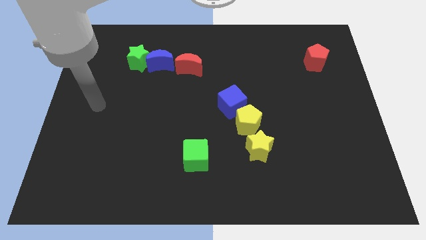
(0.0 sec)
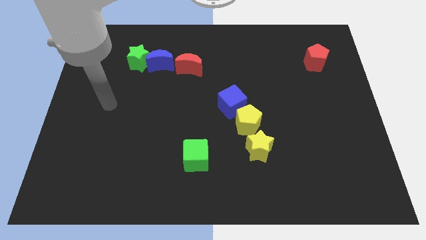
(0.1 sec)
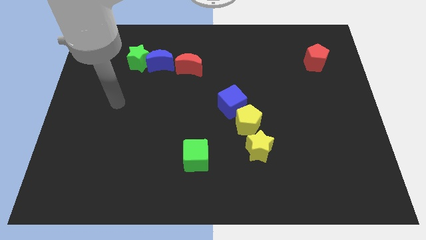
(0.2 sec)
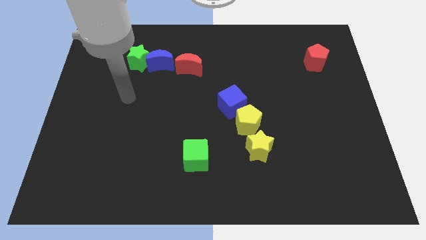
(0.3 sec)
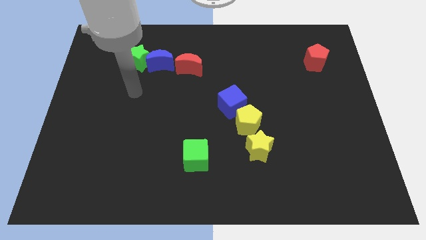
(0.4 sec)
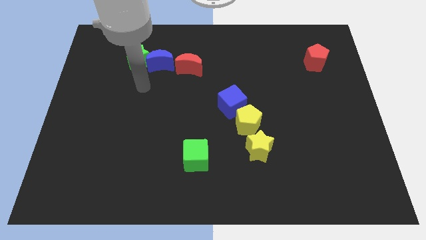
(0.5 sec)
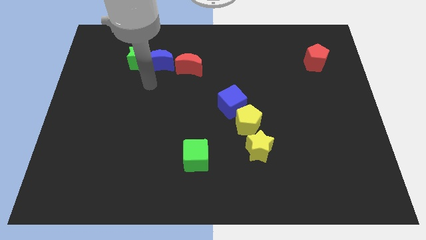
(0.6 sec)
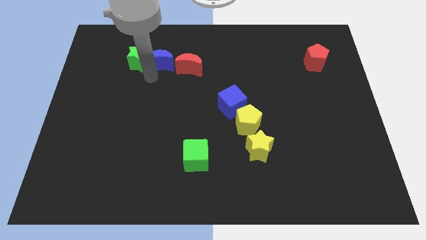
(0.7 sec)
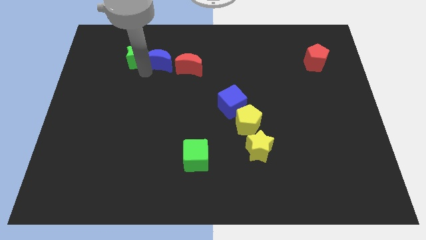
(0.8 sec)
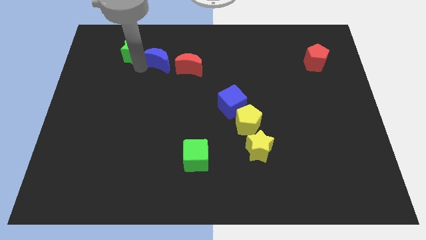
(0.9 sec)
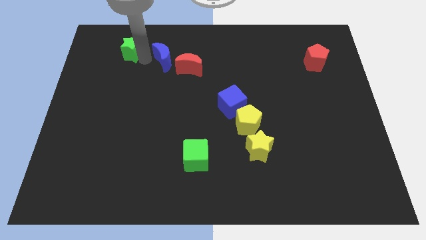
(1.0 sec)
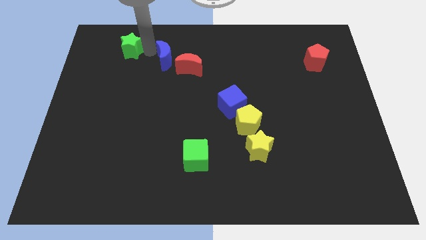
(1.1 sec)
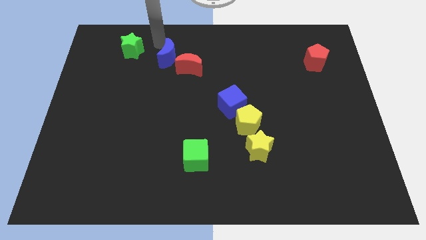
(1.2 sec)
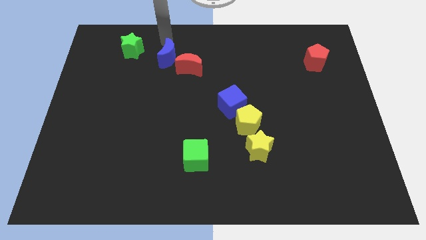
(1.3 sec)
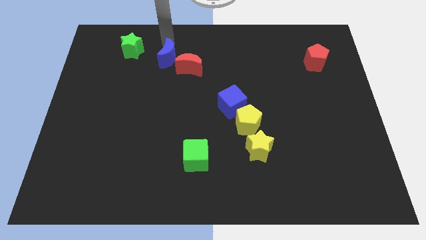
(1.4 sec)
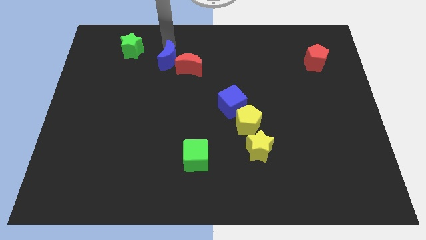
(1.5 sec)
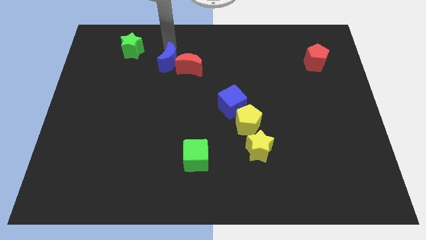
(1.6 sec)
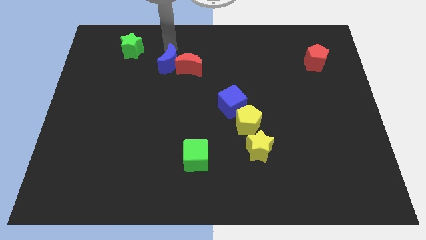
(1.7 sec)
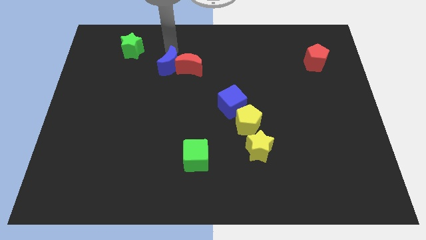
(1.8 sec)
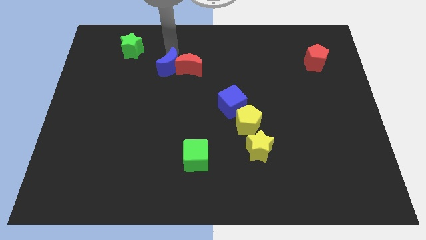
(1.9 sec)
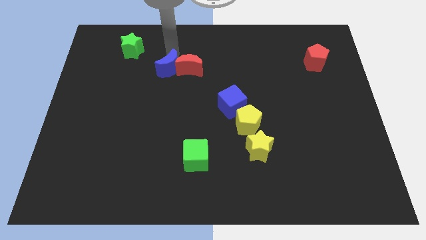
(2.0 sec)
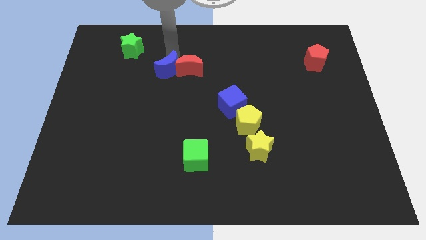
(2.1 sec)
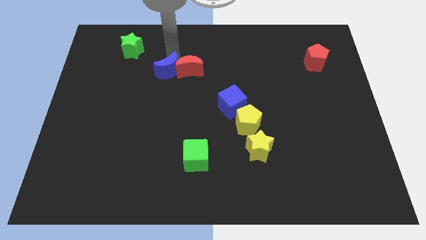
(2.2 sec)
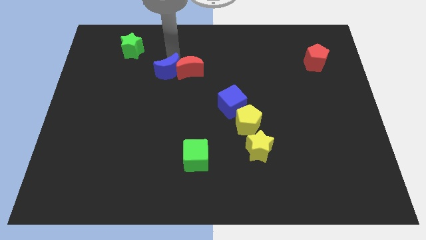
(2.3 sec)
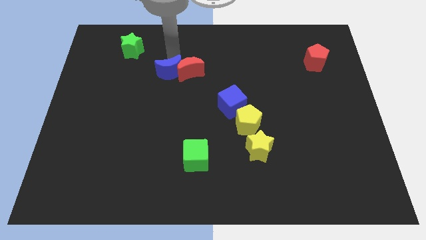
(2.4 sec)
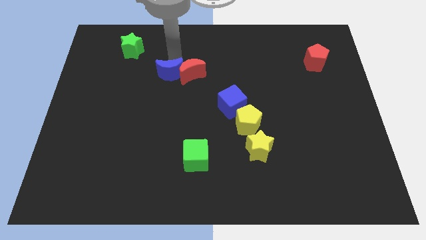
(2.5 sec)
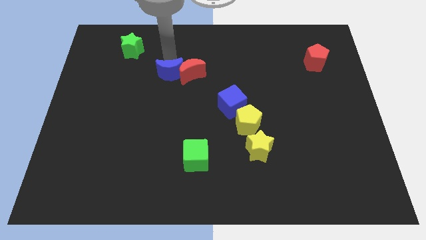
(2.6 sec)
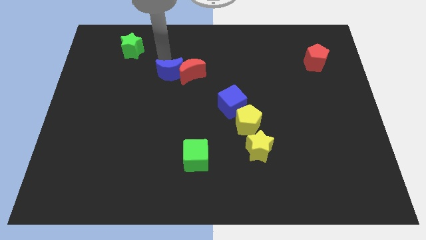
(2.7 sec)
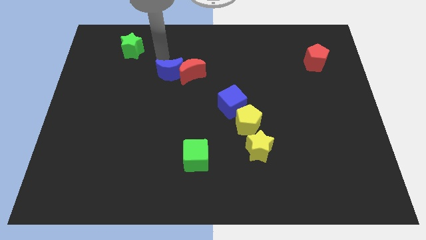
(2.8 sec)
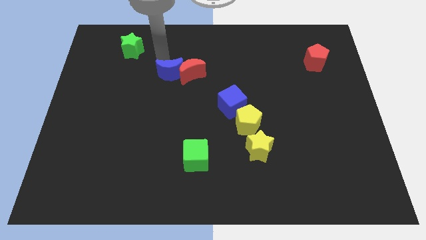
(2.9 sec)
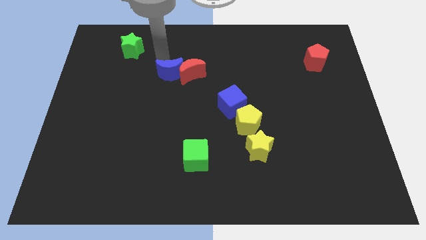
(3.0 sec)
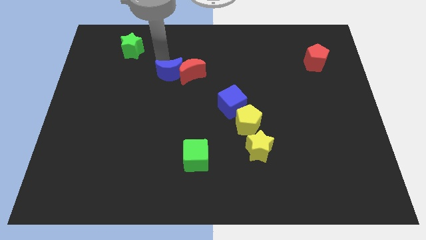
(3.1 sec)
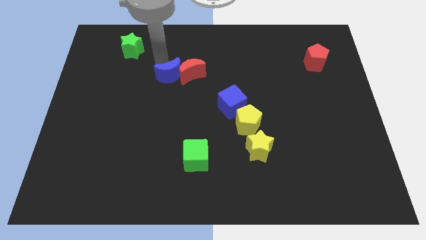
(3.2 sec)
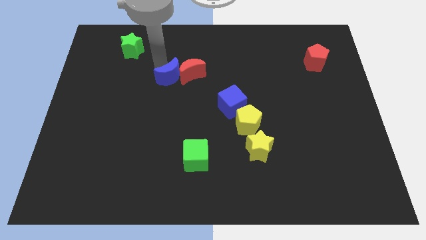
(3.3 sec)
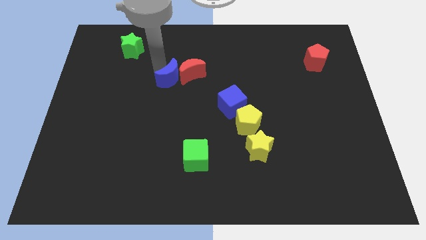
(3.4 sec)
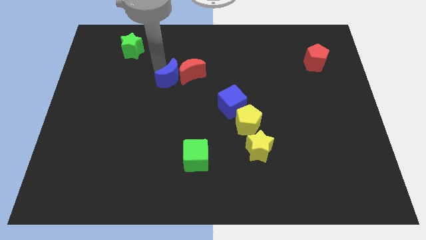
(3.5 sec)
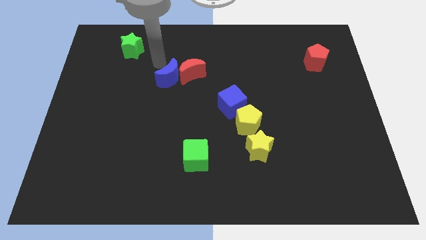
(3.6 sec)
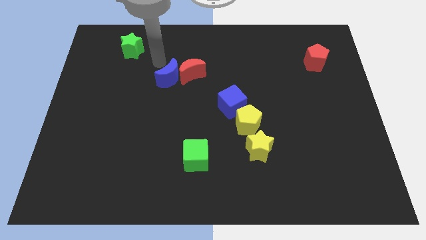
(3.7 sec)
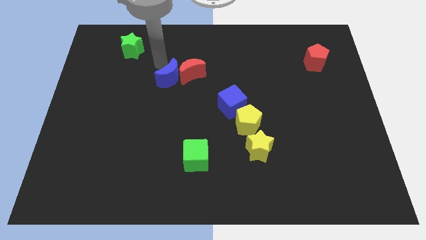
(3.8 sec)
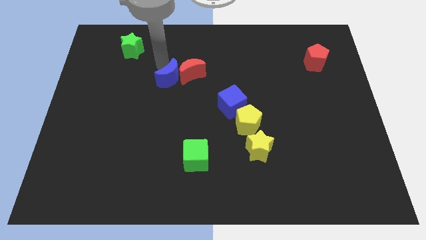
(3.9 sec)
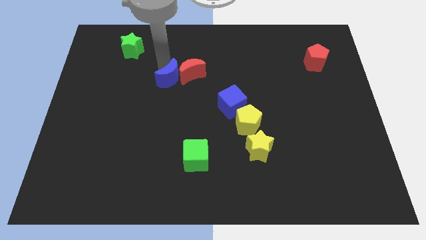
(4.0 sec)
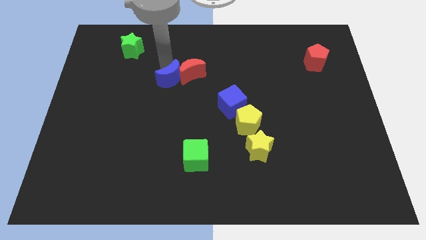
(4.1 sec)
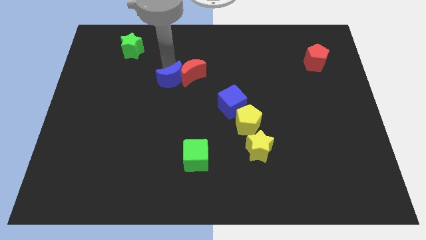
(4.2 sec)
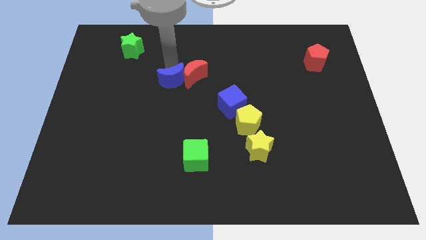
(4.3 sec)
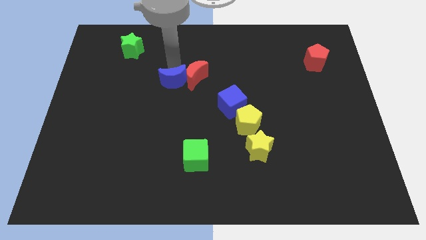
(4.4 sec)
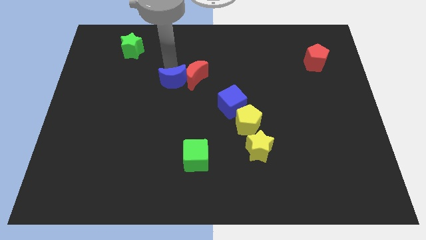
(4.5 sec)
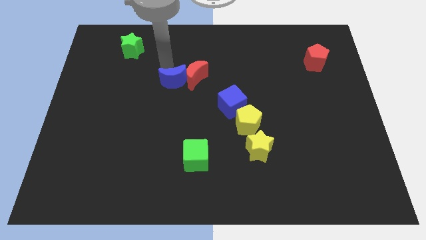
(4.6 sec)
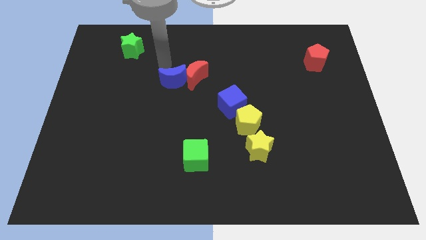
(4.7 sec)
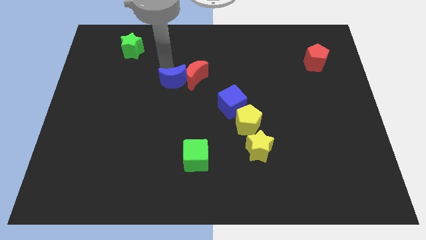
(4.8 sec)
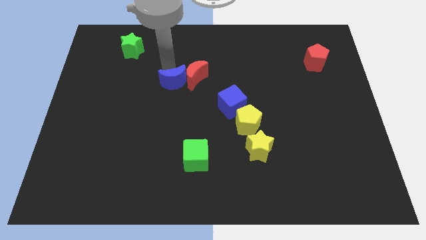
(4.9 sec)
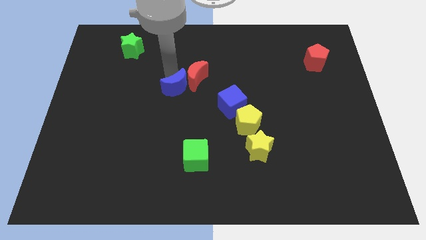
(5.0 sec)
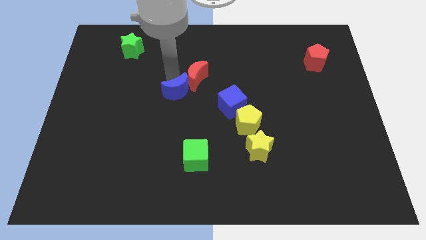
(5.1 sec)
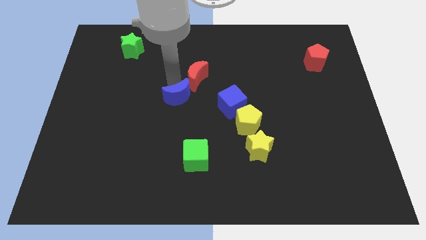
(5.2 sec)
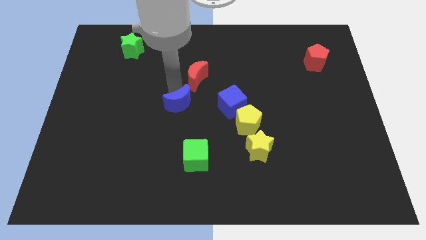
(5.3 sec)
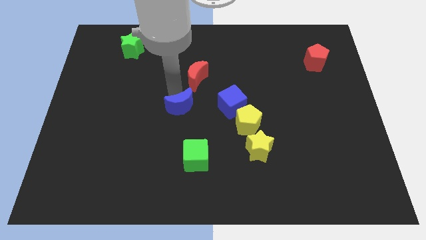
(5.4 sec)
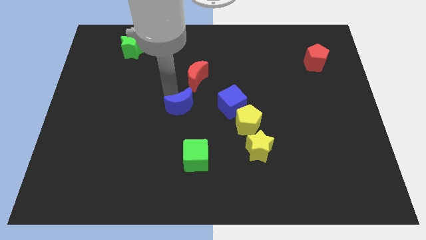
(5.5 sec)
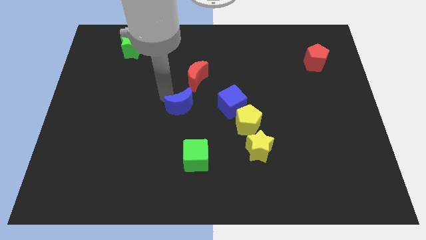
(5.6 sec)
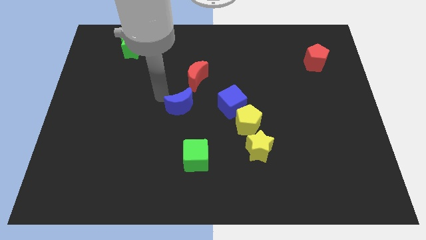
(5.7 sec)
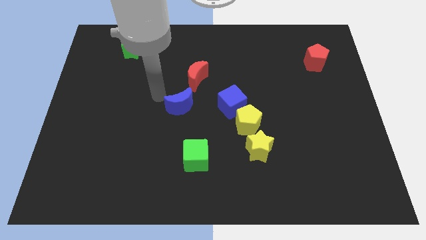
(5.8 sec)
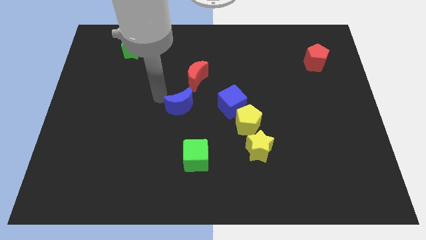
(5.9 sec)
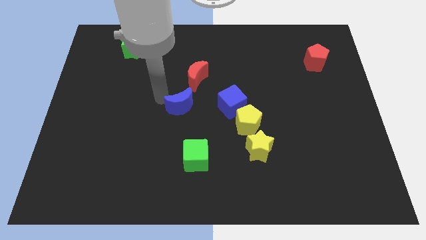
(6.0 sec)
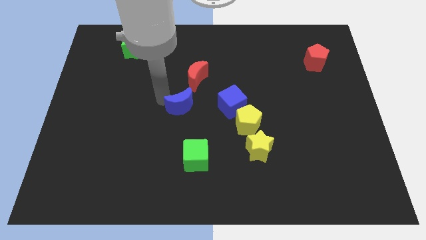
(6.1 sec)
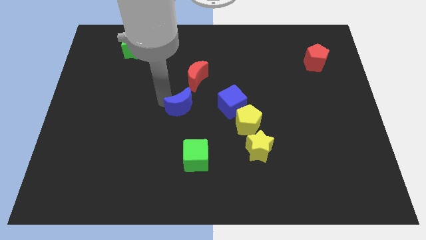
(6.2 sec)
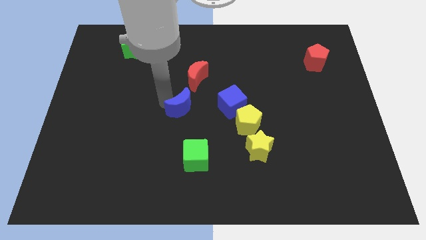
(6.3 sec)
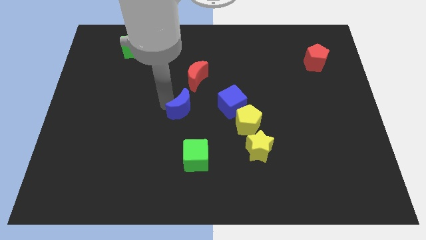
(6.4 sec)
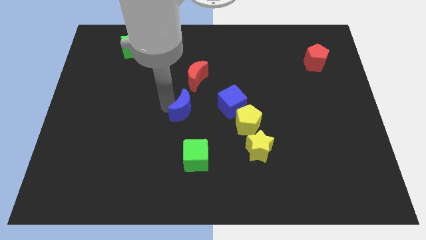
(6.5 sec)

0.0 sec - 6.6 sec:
move the blue moon just left of the yellow pentagon

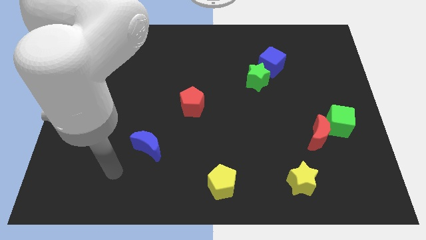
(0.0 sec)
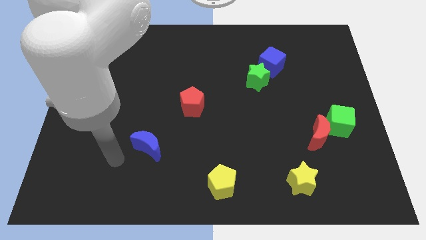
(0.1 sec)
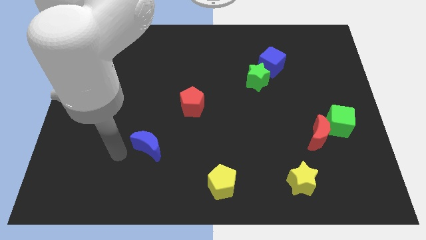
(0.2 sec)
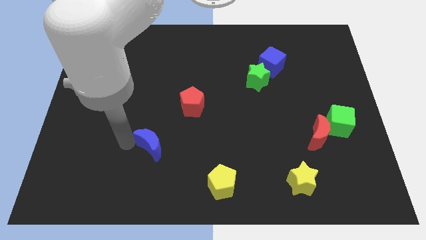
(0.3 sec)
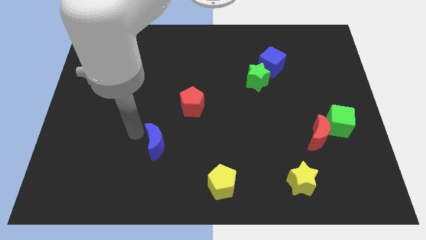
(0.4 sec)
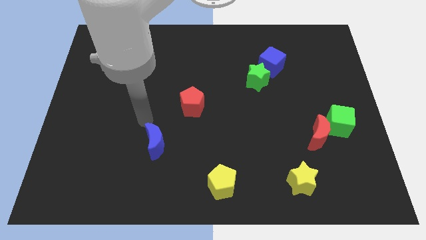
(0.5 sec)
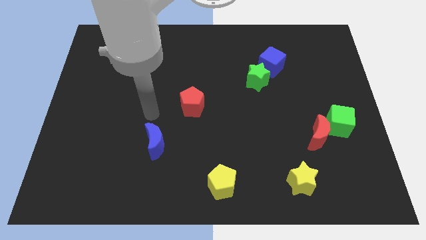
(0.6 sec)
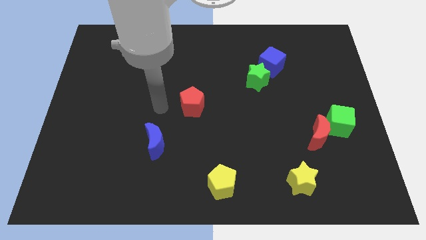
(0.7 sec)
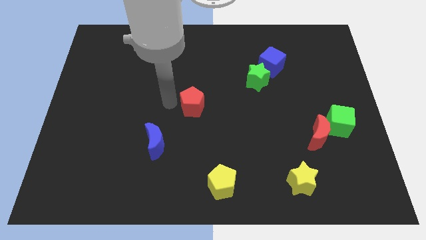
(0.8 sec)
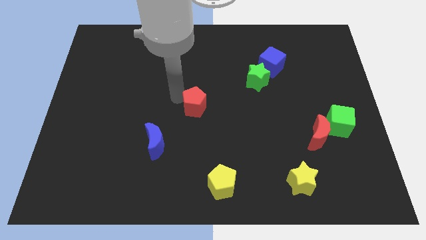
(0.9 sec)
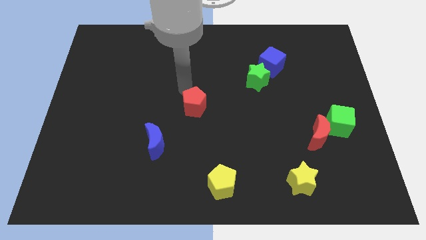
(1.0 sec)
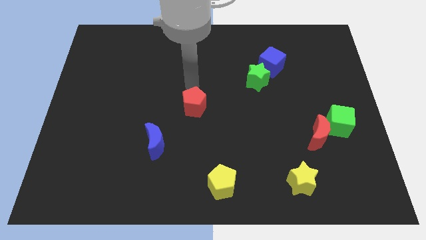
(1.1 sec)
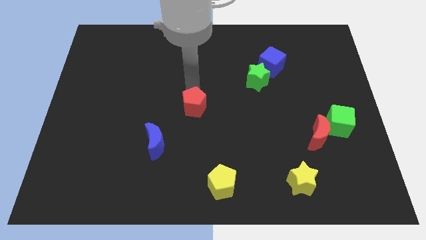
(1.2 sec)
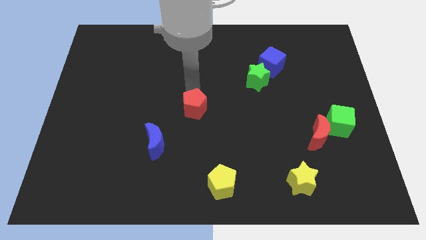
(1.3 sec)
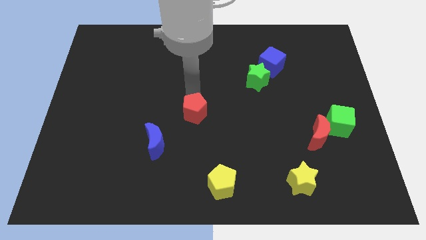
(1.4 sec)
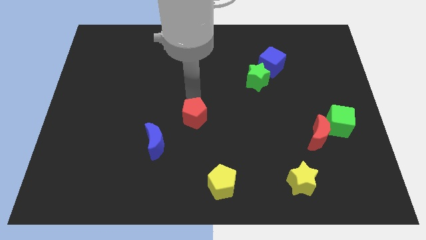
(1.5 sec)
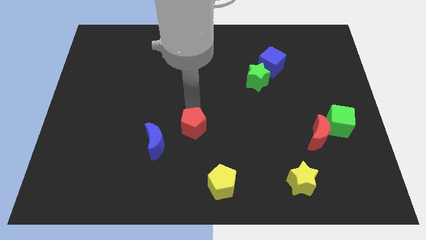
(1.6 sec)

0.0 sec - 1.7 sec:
move the red pentagon just right of the blue moon
